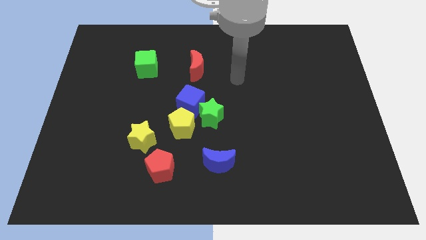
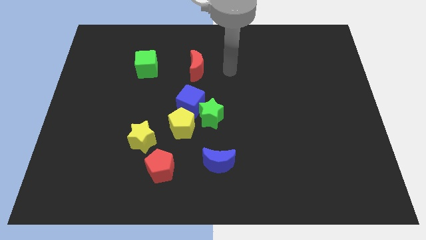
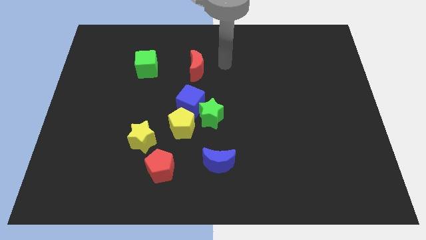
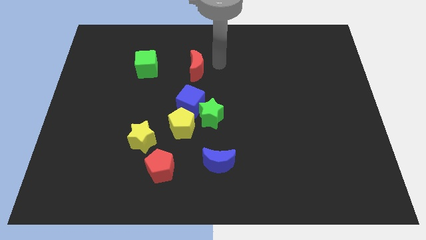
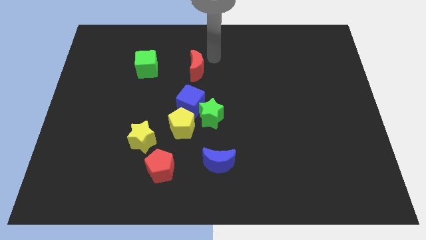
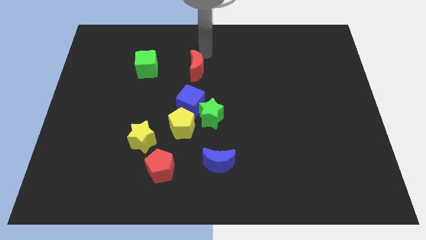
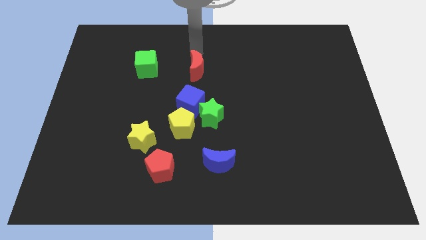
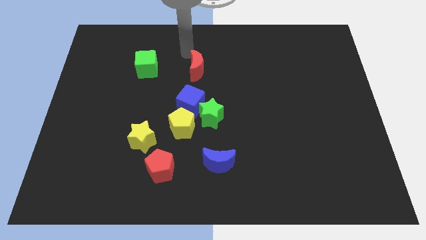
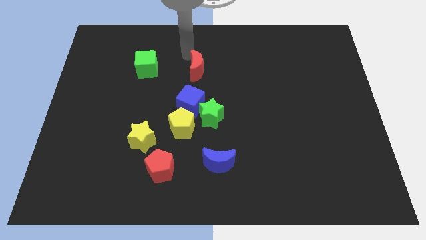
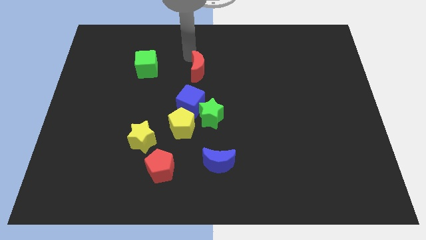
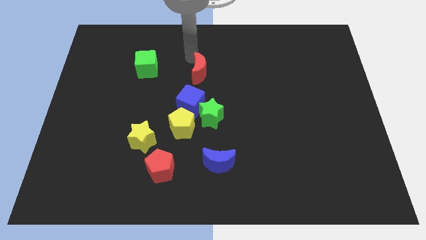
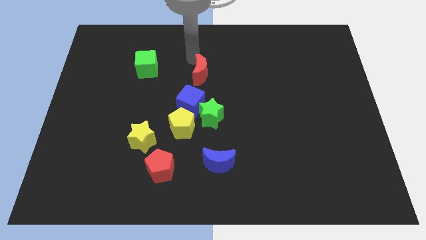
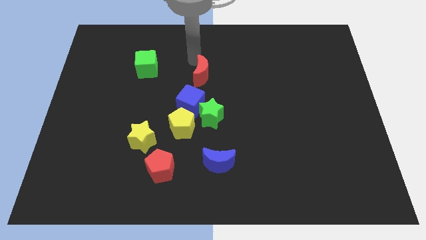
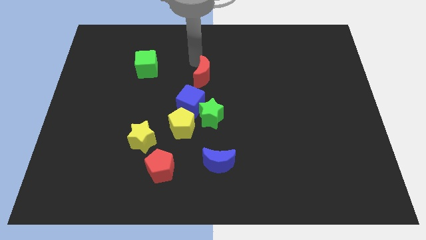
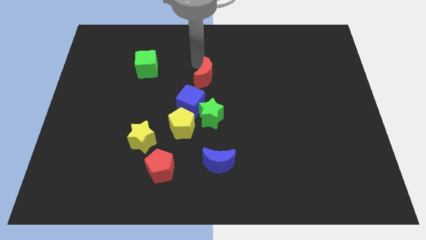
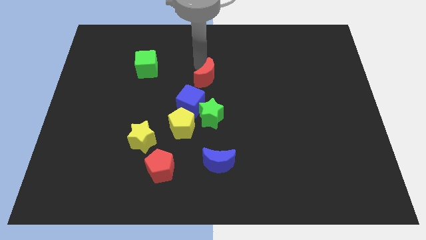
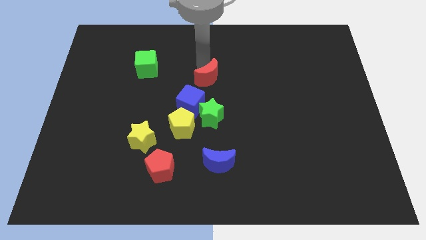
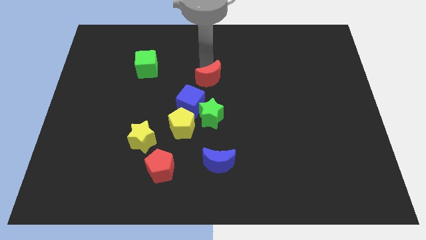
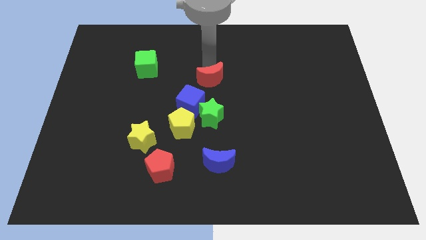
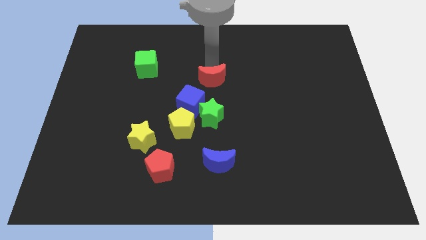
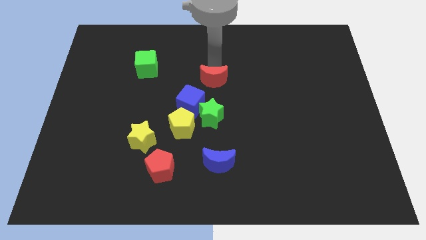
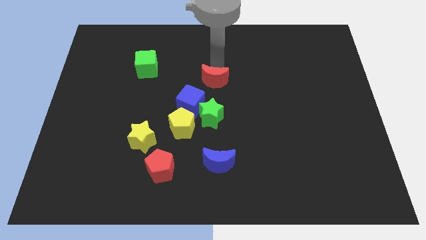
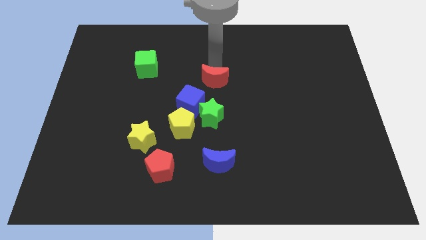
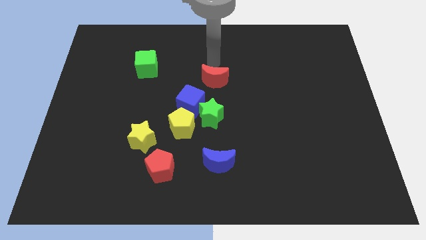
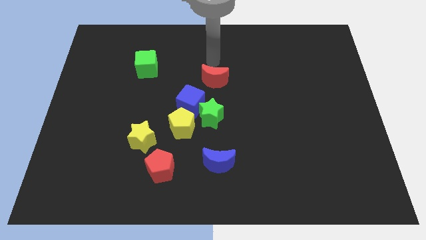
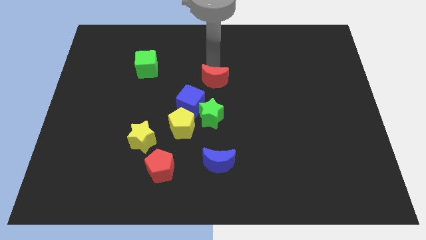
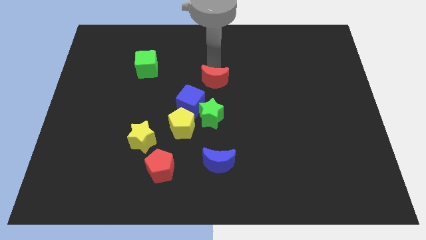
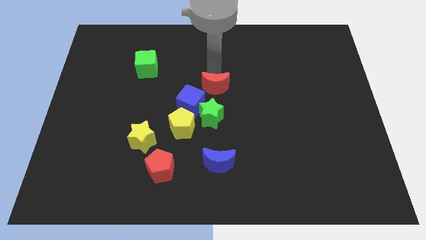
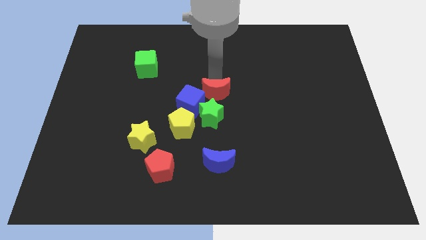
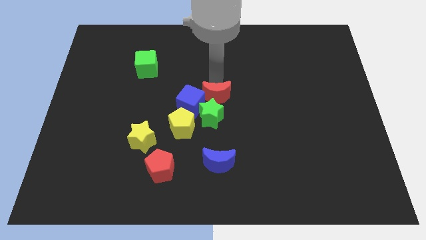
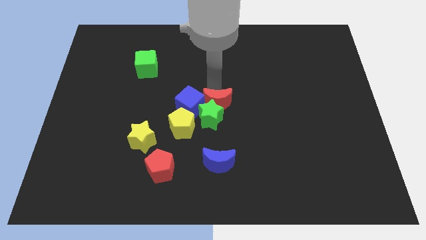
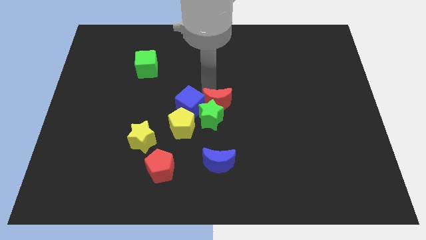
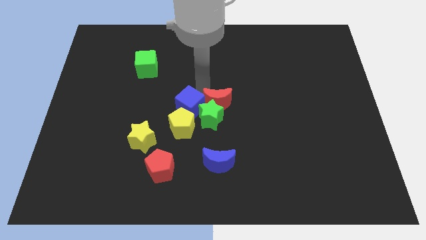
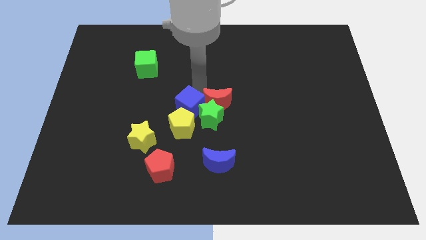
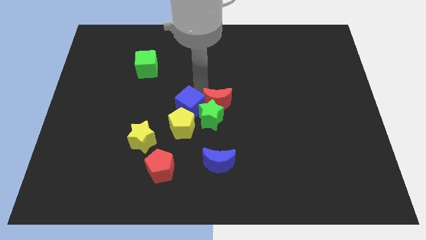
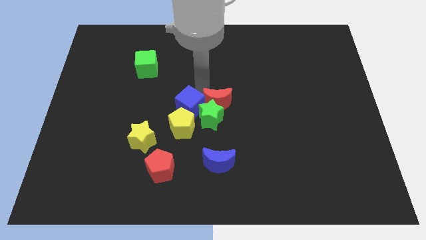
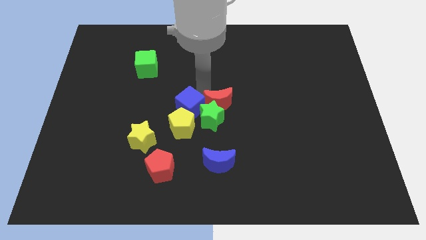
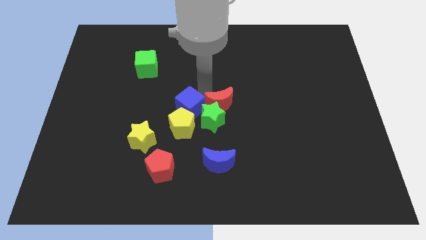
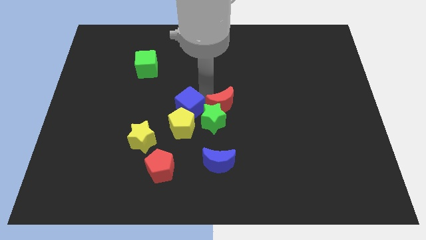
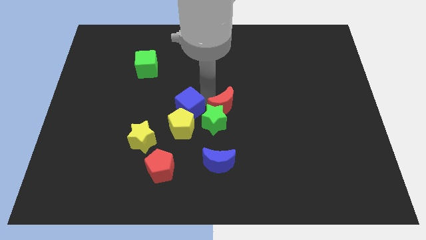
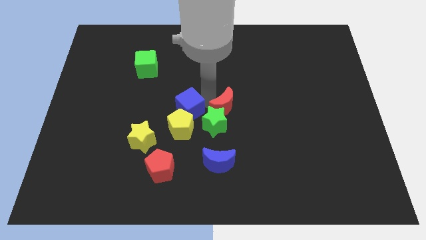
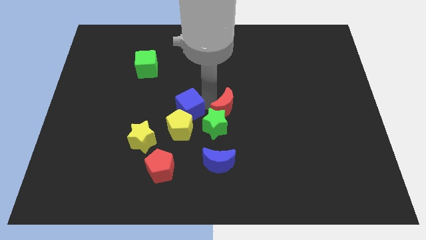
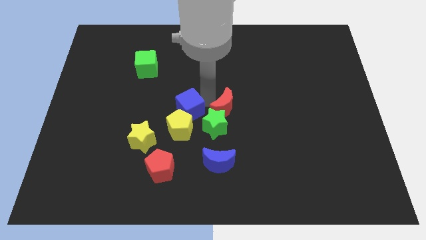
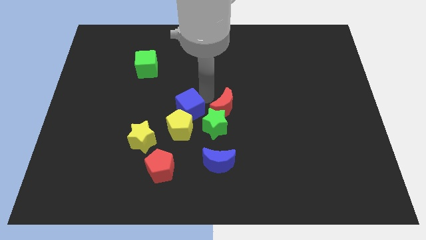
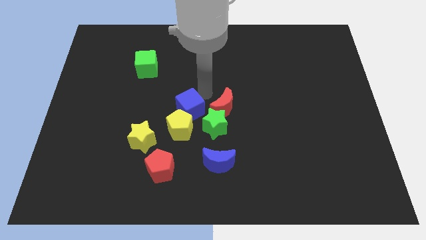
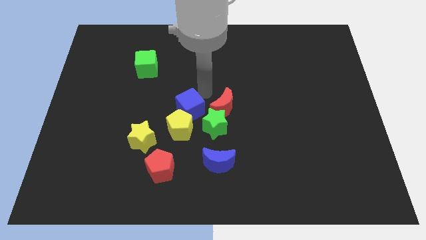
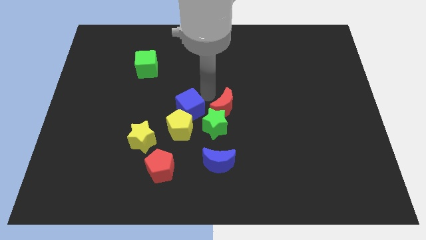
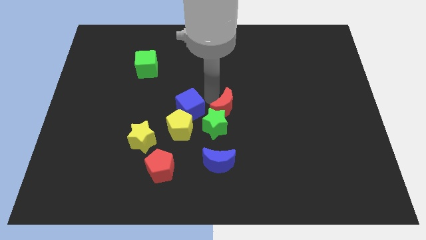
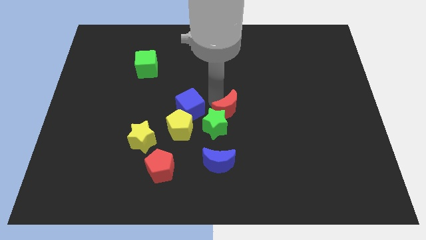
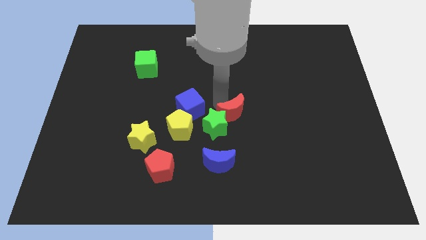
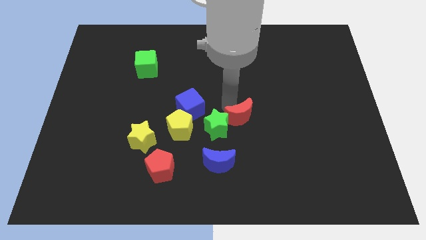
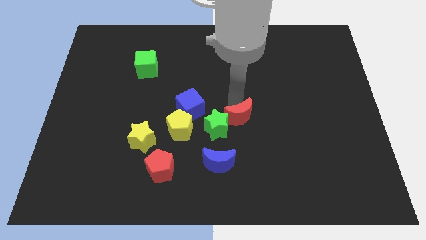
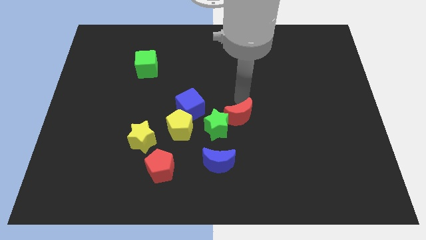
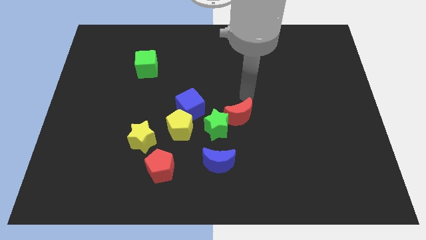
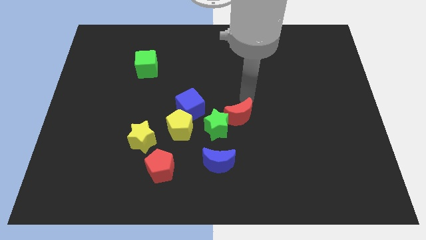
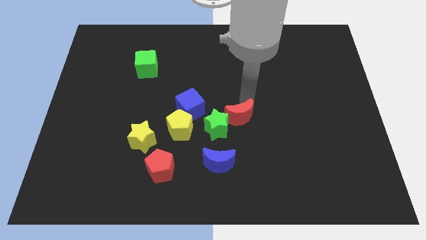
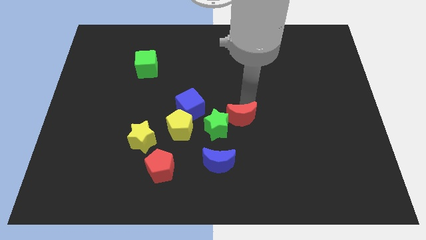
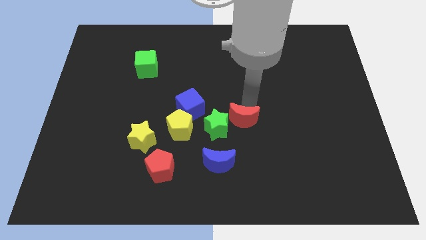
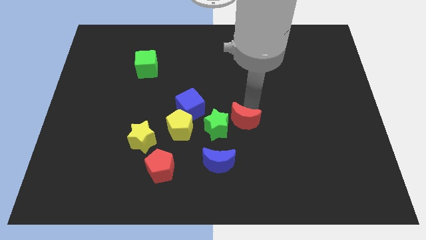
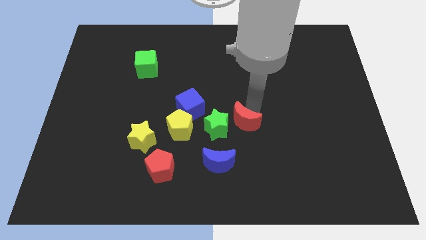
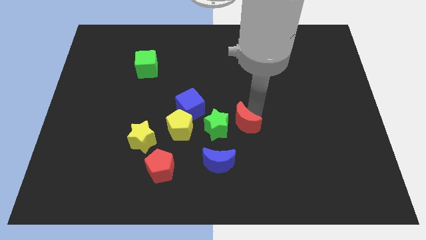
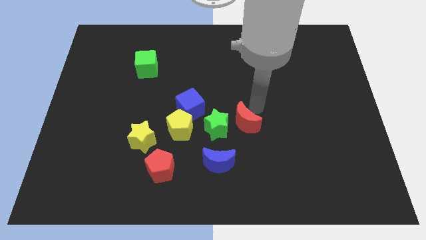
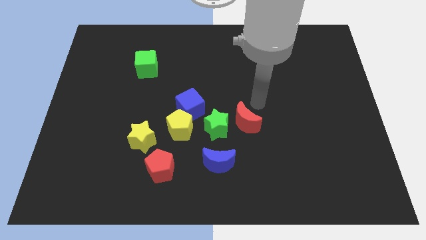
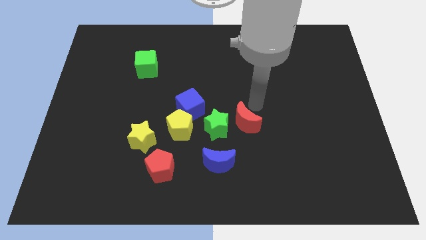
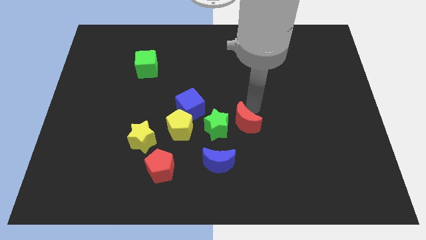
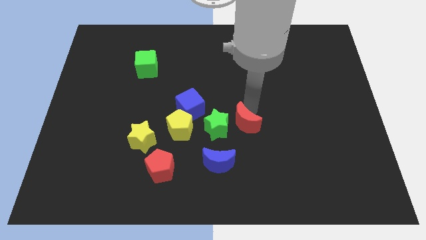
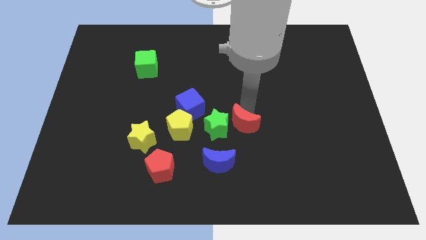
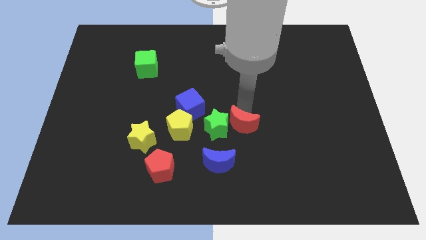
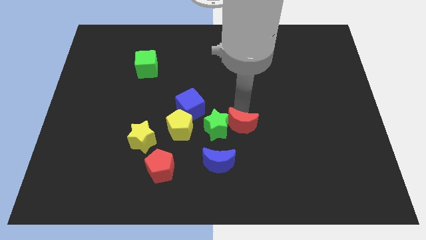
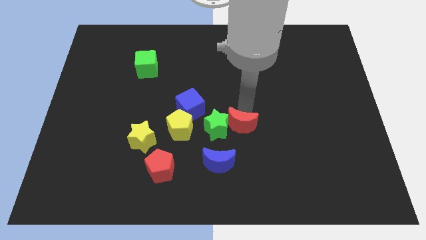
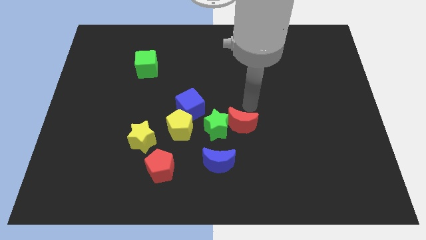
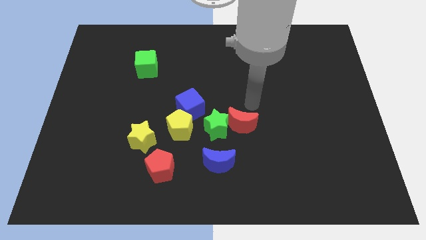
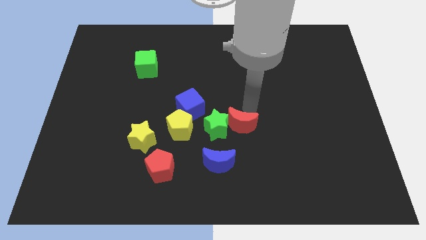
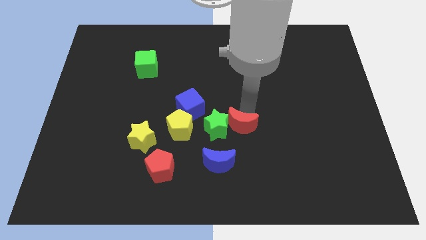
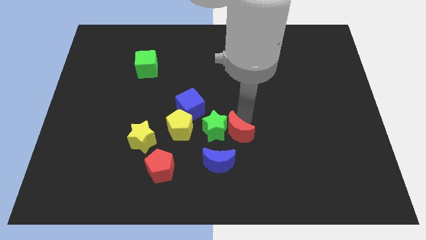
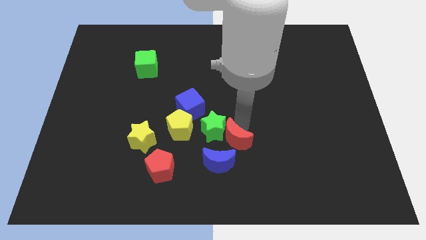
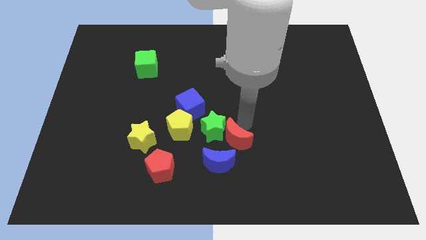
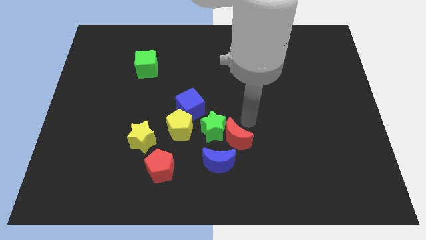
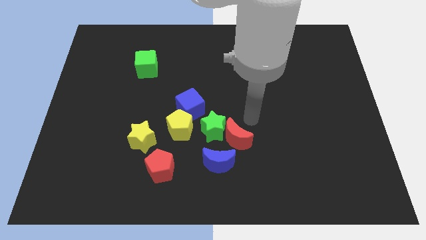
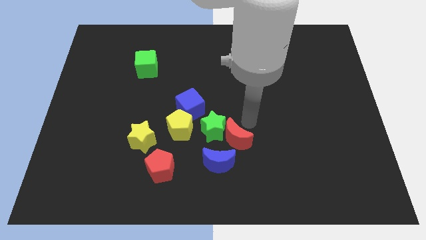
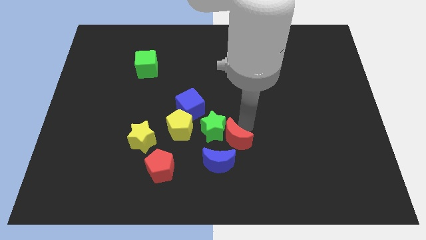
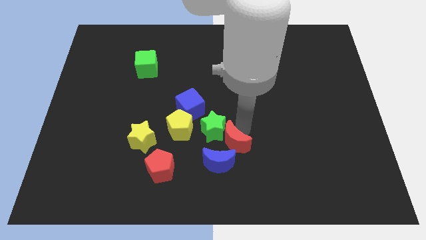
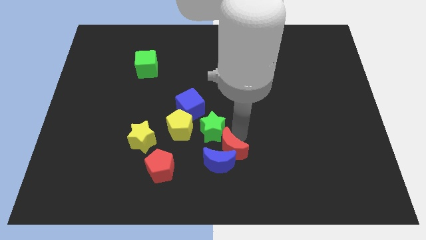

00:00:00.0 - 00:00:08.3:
move the red moon next to the blue moon
